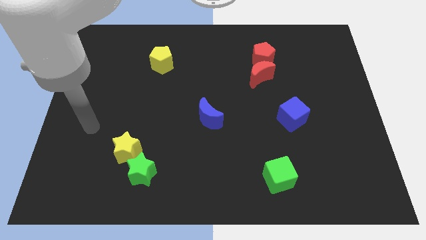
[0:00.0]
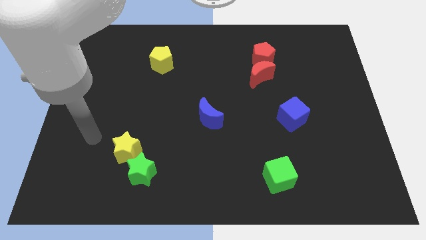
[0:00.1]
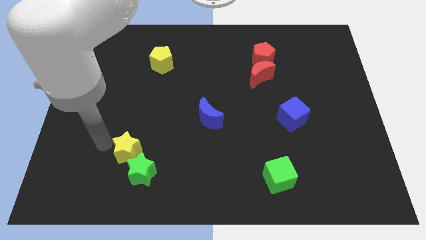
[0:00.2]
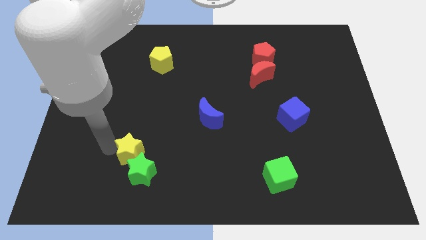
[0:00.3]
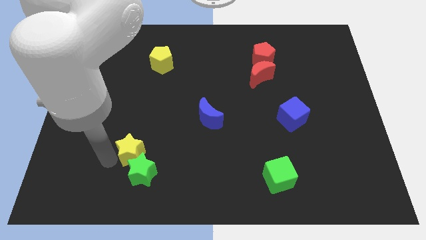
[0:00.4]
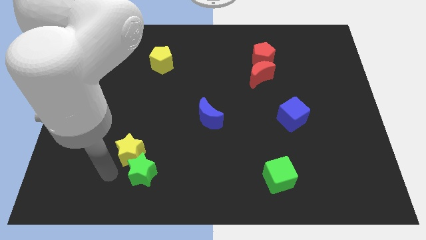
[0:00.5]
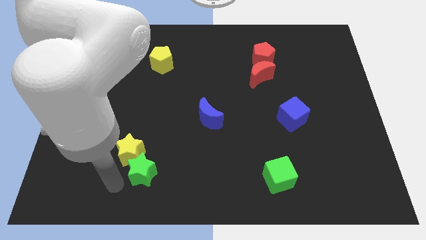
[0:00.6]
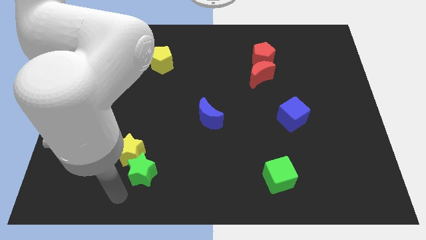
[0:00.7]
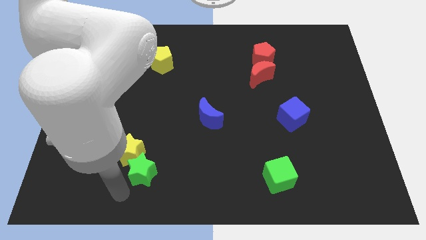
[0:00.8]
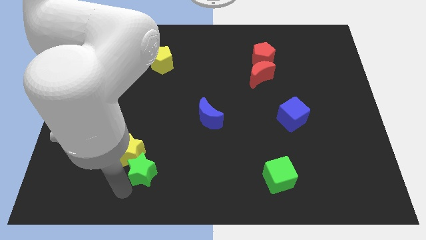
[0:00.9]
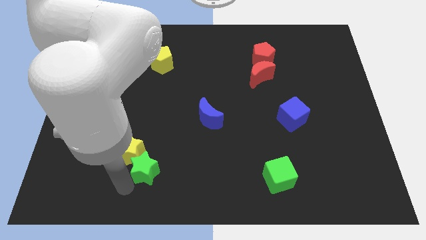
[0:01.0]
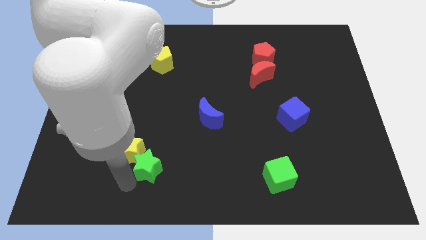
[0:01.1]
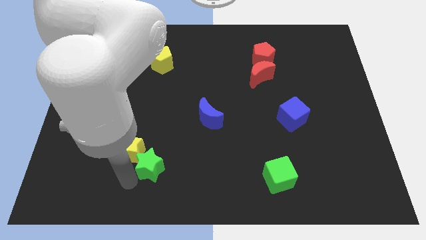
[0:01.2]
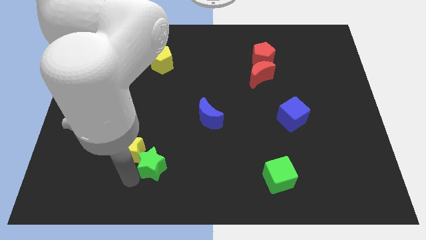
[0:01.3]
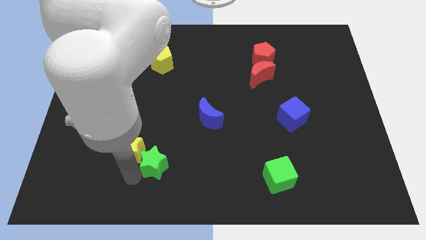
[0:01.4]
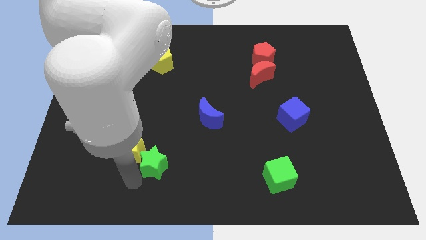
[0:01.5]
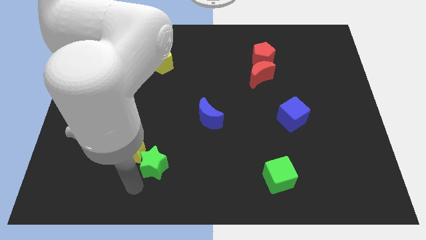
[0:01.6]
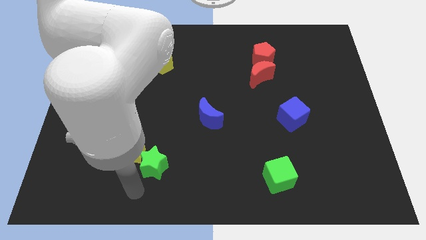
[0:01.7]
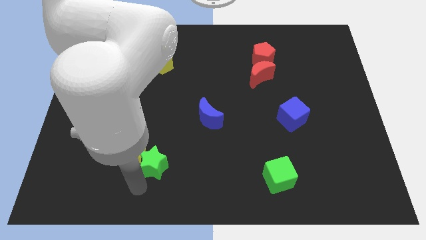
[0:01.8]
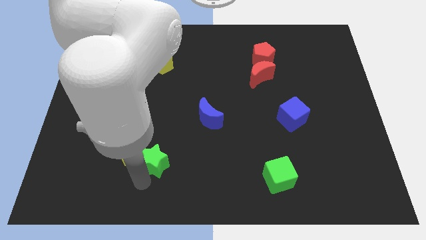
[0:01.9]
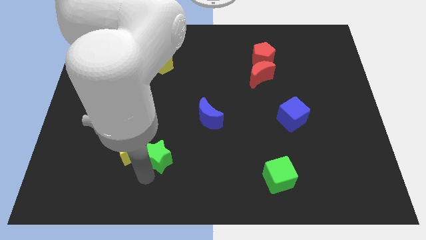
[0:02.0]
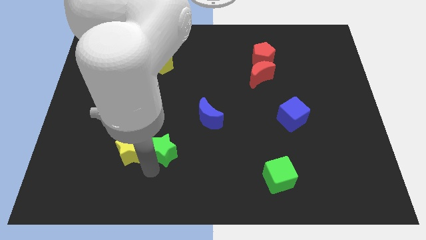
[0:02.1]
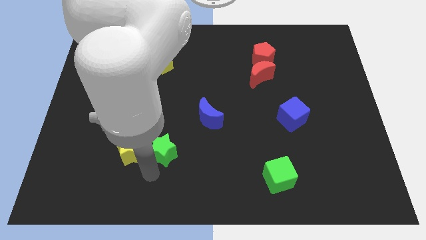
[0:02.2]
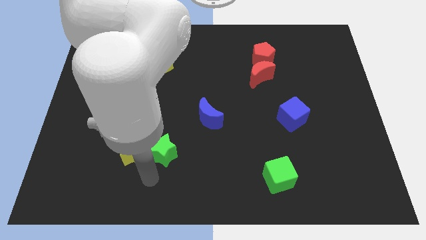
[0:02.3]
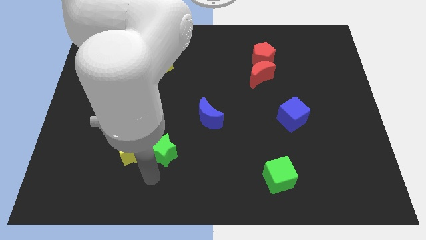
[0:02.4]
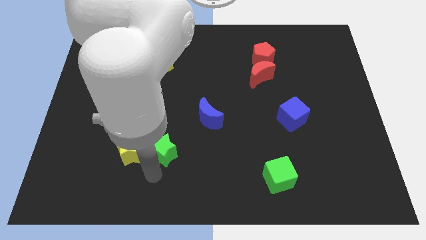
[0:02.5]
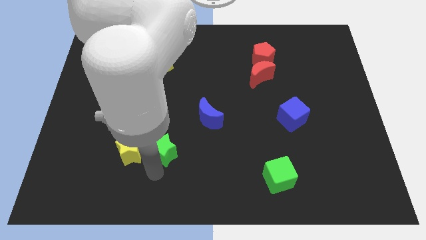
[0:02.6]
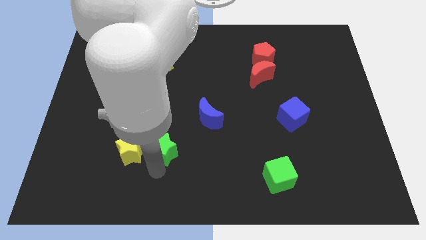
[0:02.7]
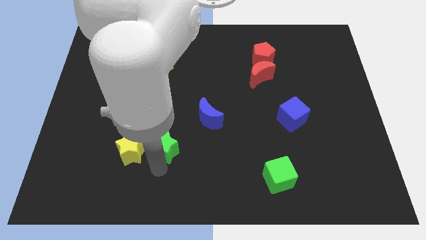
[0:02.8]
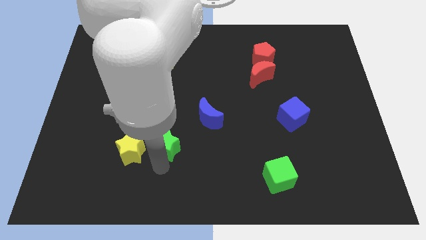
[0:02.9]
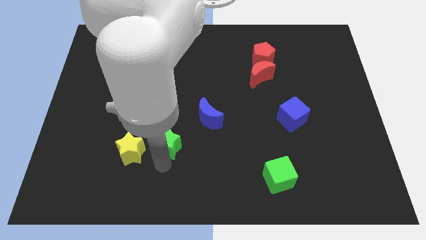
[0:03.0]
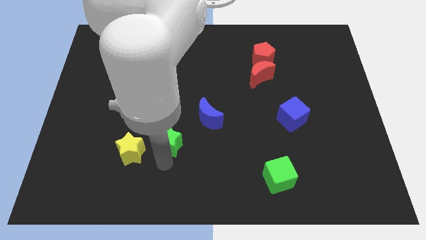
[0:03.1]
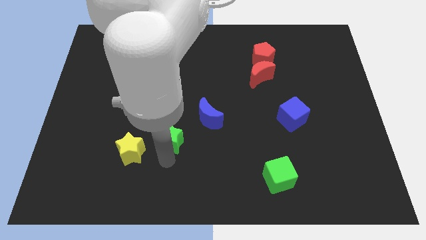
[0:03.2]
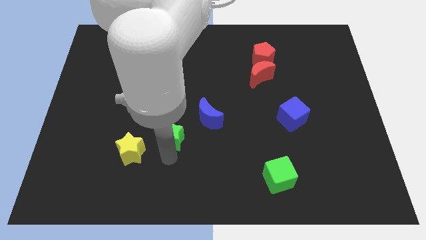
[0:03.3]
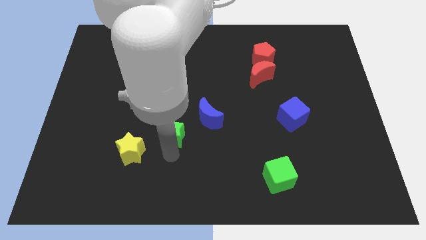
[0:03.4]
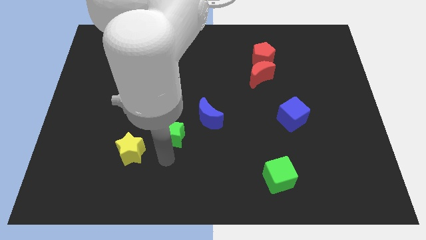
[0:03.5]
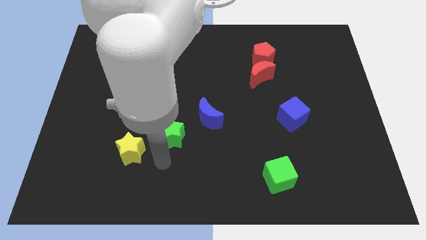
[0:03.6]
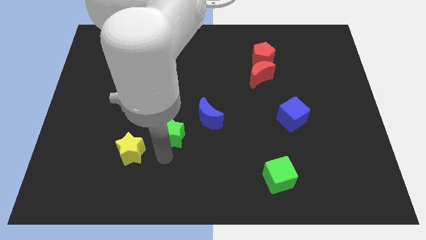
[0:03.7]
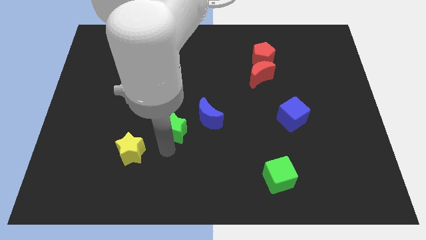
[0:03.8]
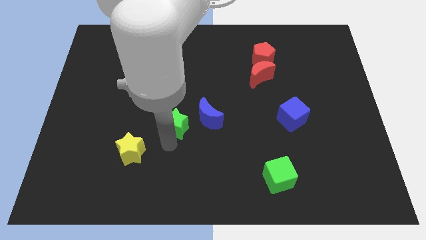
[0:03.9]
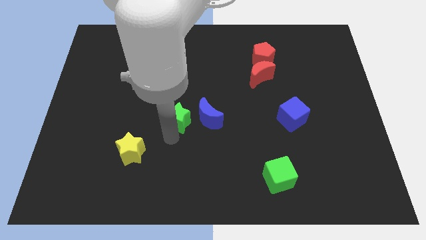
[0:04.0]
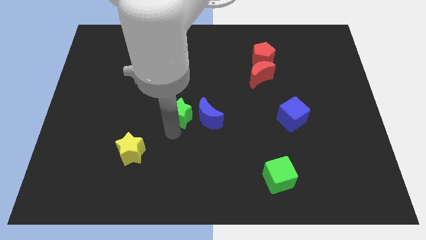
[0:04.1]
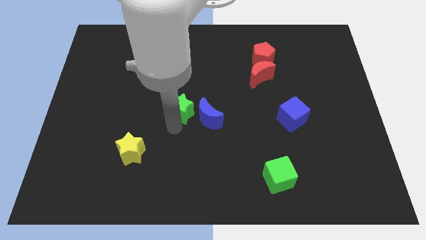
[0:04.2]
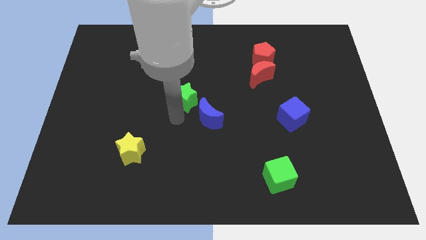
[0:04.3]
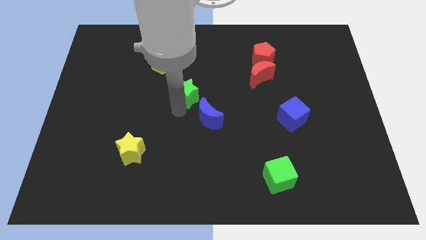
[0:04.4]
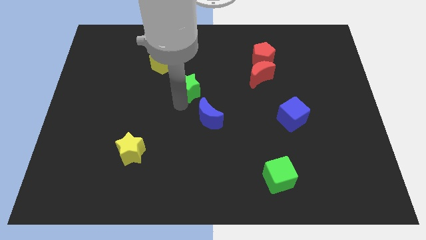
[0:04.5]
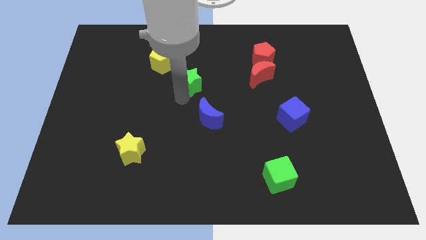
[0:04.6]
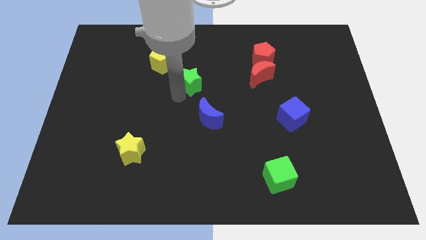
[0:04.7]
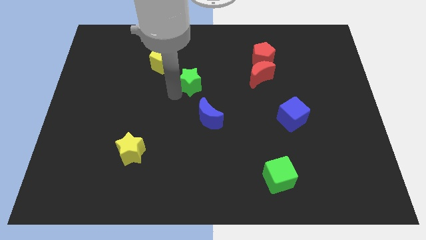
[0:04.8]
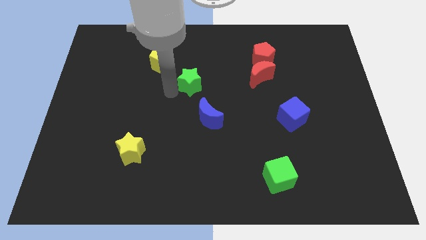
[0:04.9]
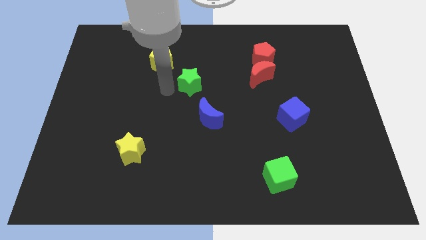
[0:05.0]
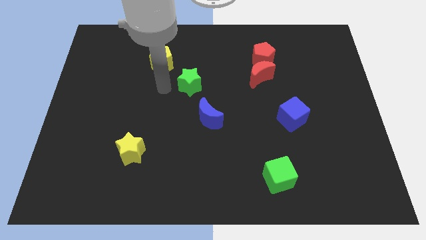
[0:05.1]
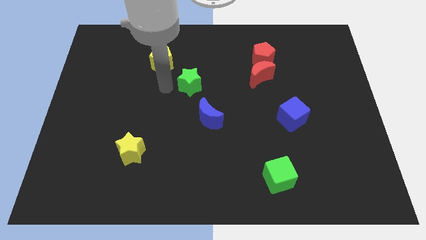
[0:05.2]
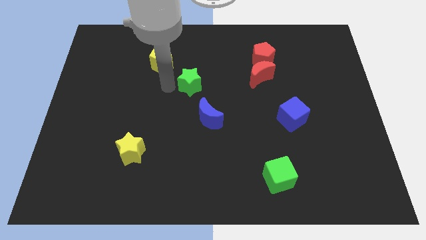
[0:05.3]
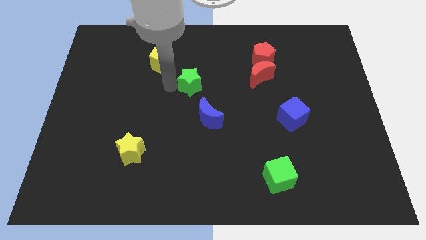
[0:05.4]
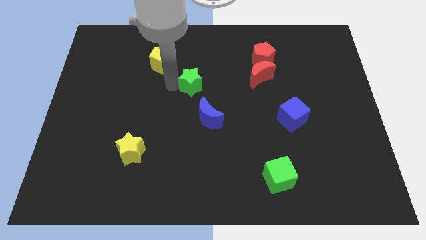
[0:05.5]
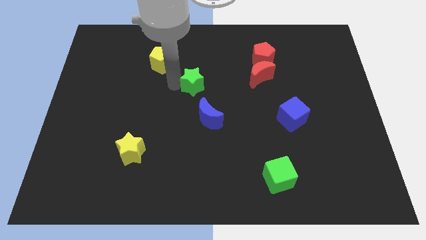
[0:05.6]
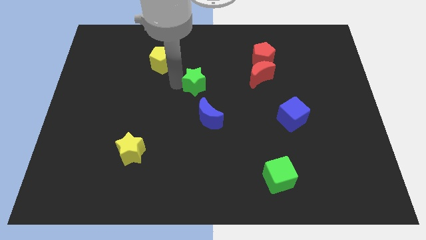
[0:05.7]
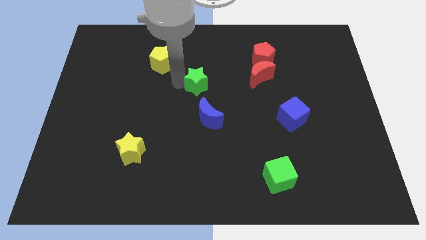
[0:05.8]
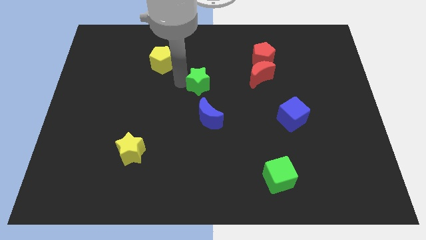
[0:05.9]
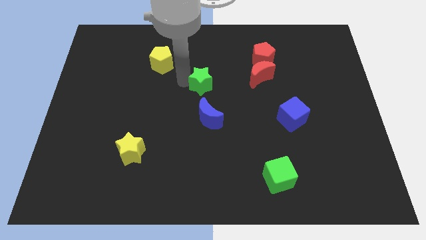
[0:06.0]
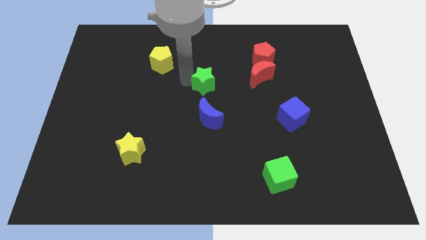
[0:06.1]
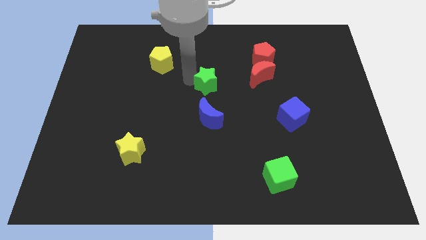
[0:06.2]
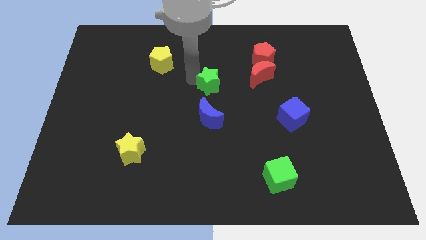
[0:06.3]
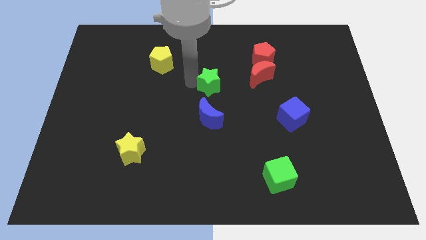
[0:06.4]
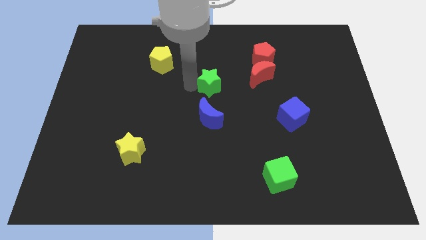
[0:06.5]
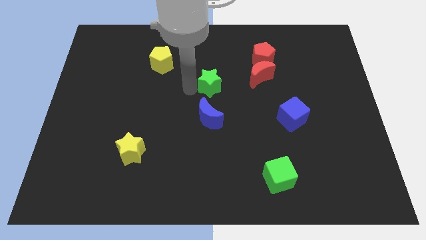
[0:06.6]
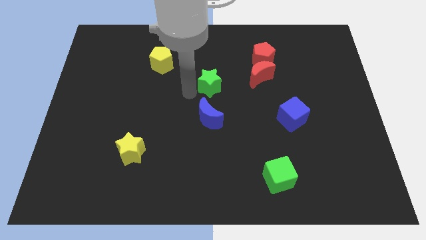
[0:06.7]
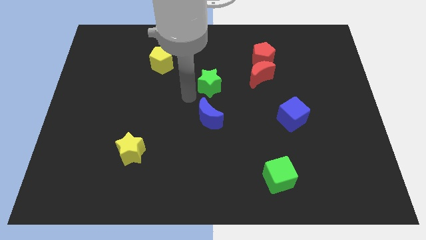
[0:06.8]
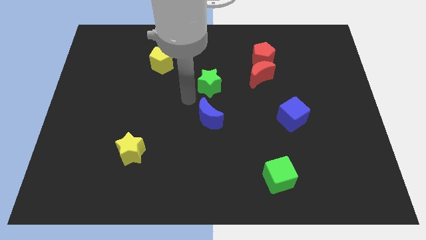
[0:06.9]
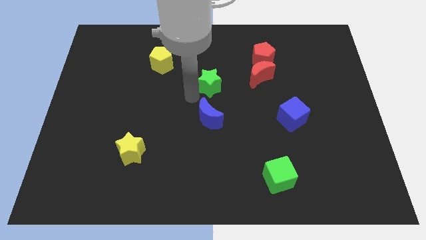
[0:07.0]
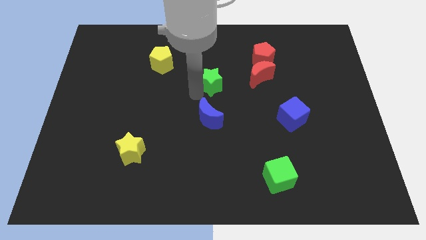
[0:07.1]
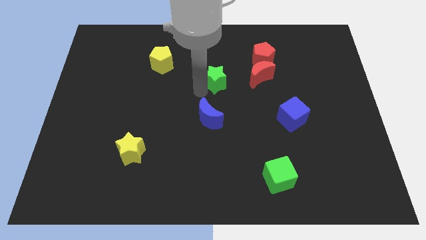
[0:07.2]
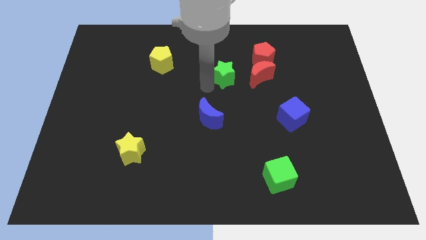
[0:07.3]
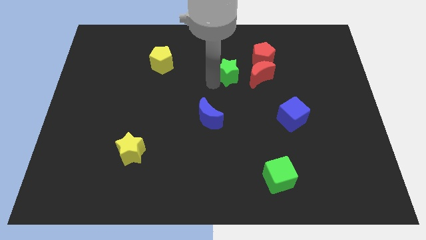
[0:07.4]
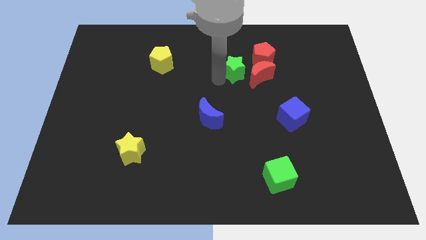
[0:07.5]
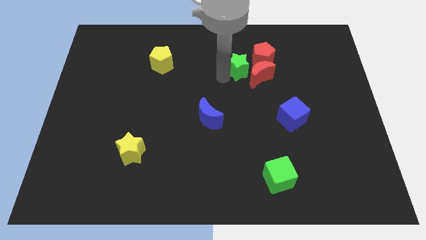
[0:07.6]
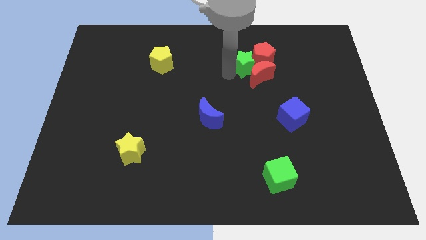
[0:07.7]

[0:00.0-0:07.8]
move the green star next to the red pentagon
